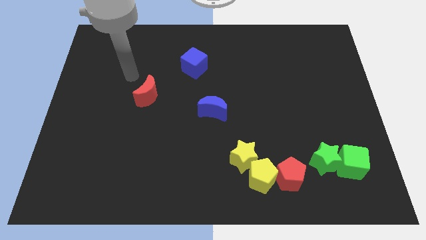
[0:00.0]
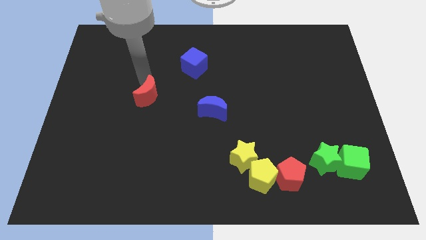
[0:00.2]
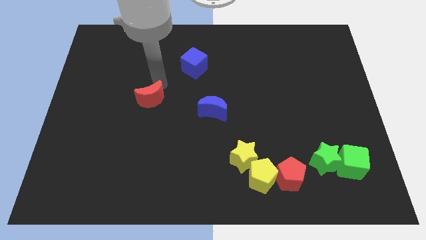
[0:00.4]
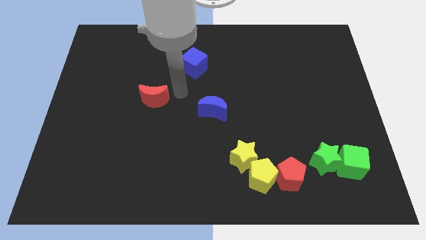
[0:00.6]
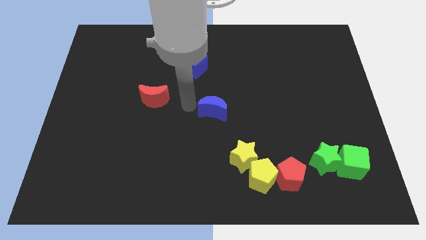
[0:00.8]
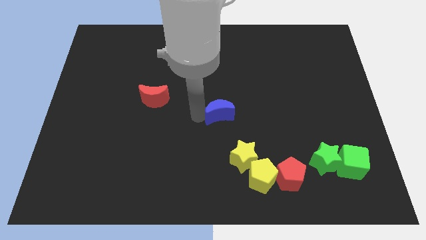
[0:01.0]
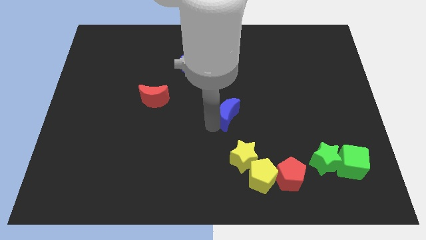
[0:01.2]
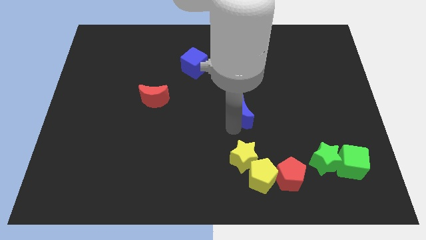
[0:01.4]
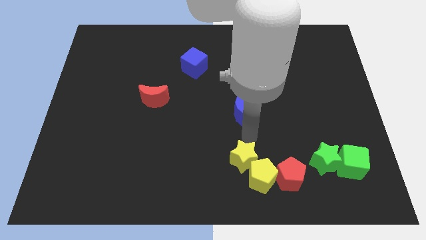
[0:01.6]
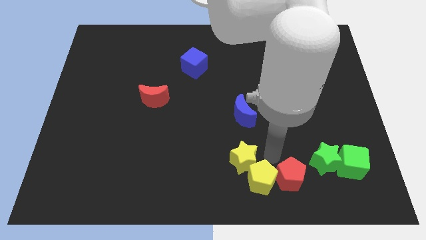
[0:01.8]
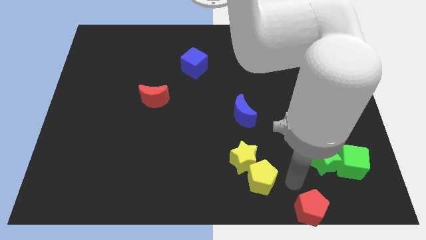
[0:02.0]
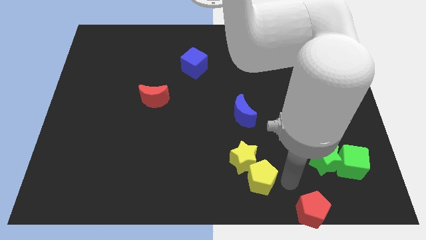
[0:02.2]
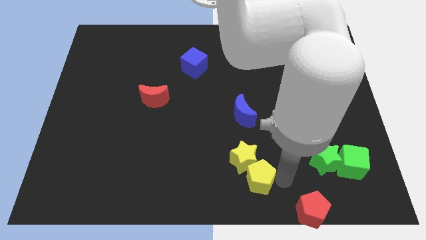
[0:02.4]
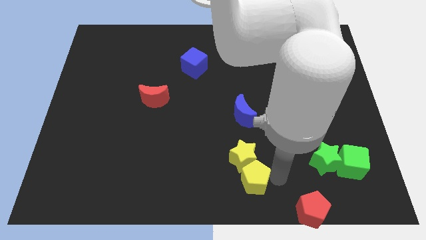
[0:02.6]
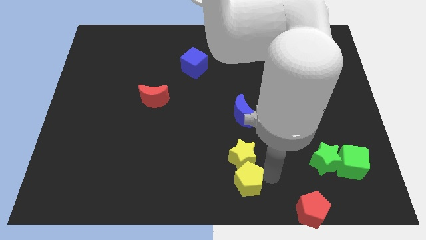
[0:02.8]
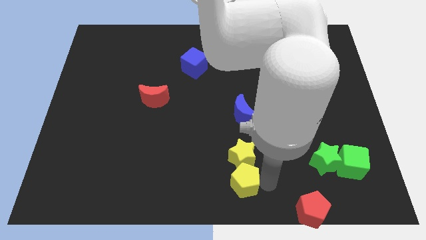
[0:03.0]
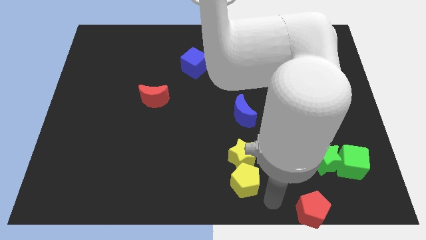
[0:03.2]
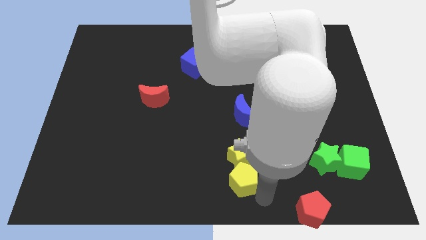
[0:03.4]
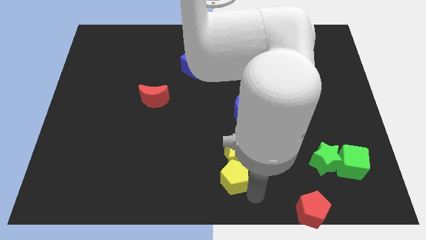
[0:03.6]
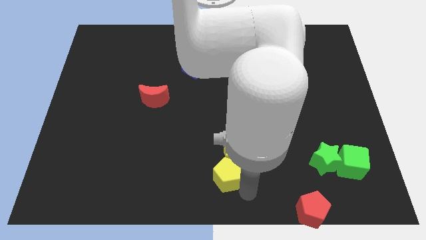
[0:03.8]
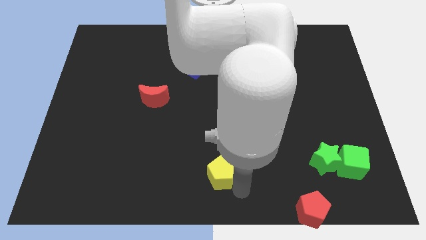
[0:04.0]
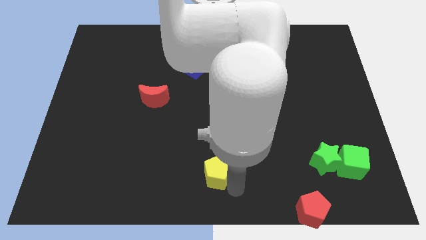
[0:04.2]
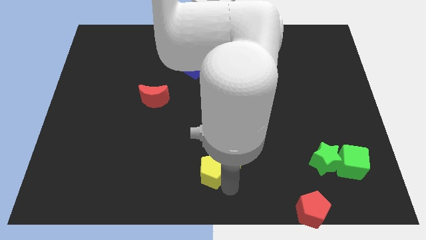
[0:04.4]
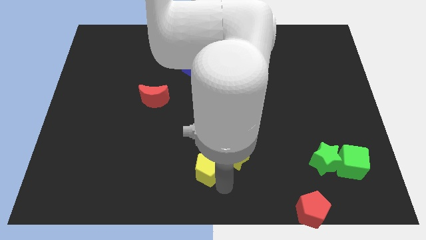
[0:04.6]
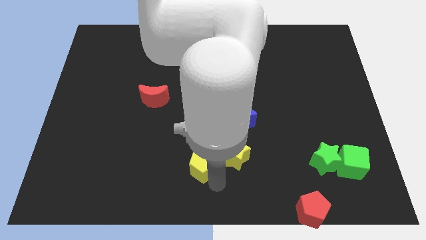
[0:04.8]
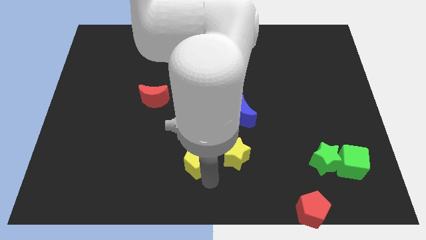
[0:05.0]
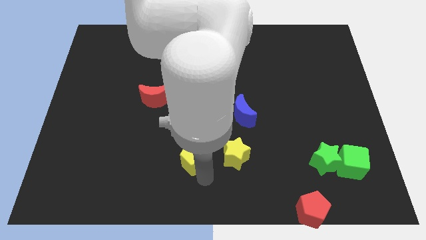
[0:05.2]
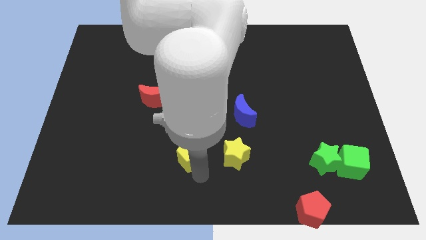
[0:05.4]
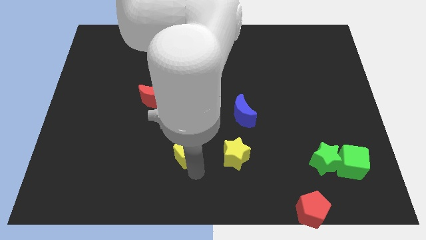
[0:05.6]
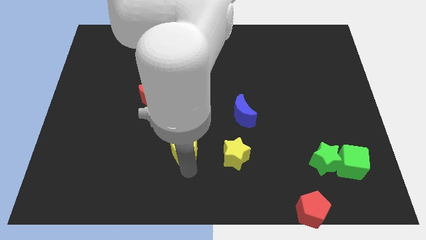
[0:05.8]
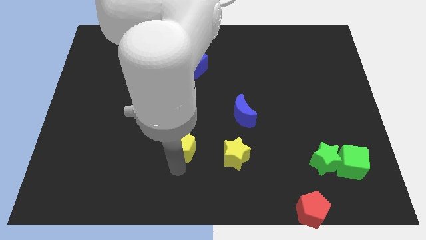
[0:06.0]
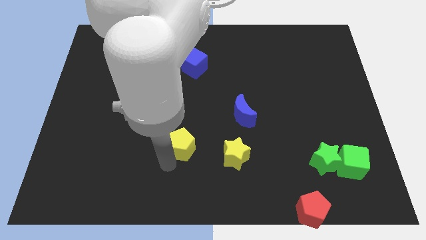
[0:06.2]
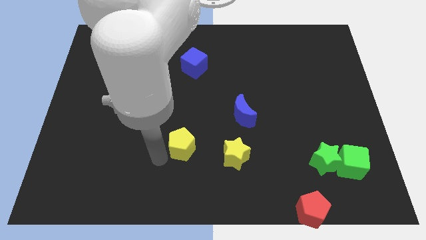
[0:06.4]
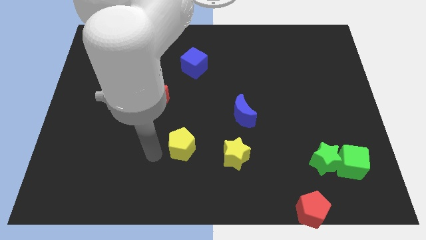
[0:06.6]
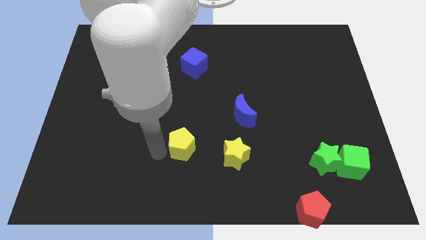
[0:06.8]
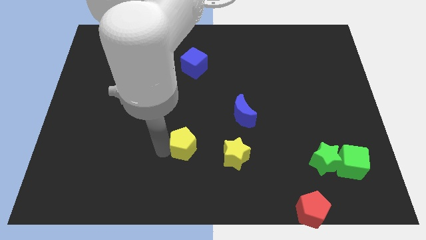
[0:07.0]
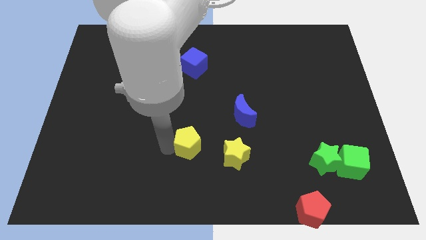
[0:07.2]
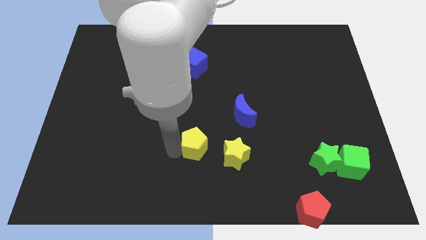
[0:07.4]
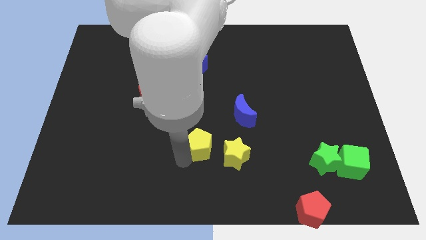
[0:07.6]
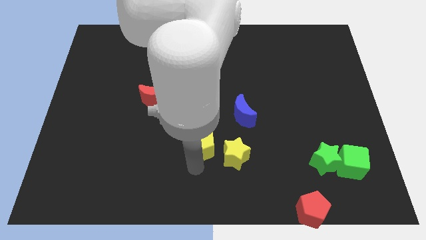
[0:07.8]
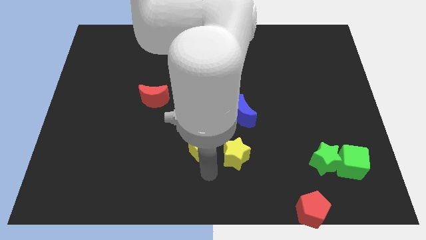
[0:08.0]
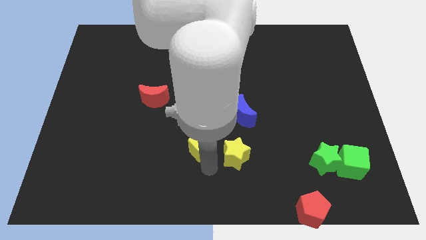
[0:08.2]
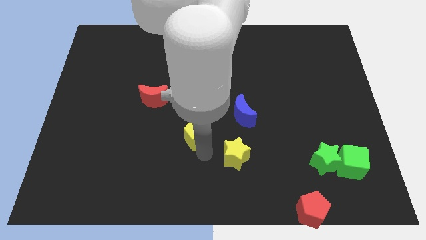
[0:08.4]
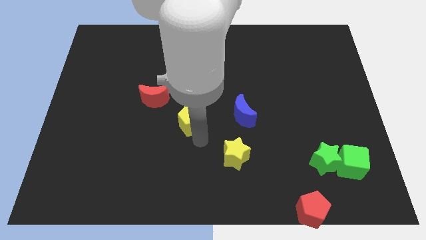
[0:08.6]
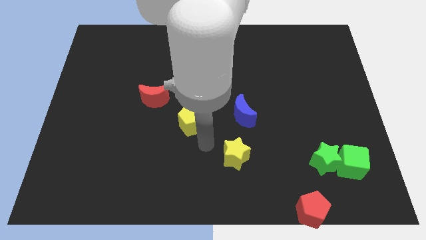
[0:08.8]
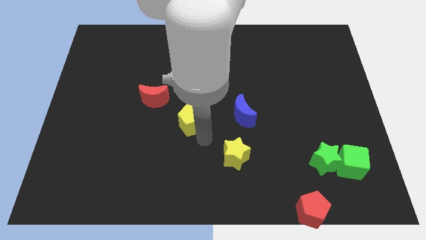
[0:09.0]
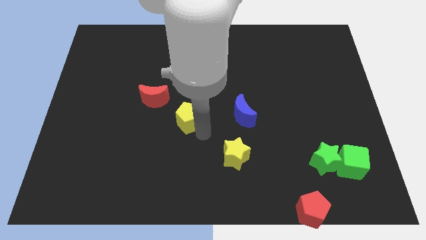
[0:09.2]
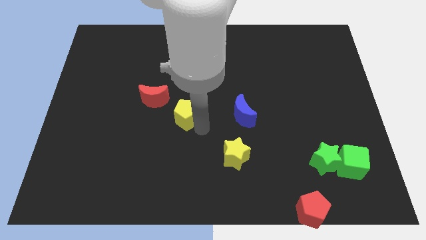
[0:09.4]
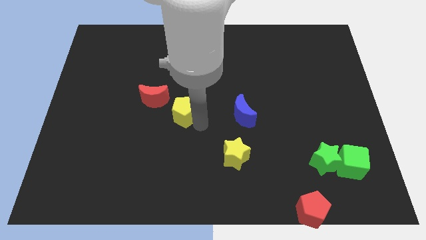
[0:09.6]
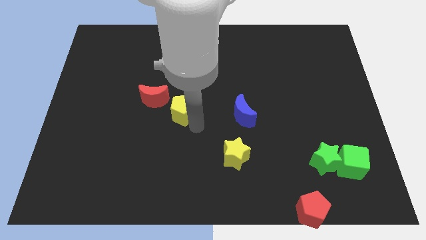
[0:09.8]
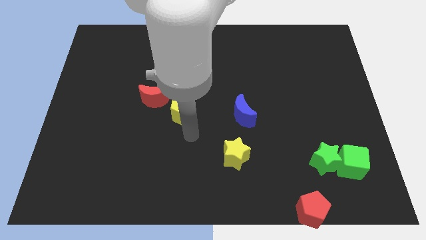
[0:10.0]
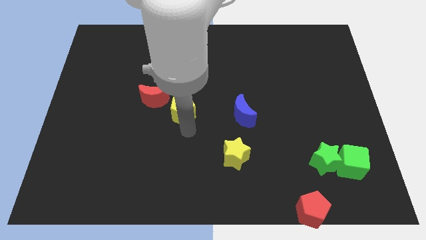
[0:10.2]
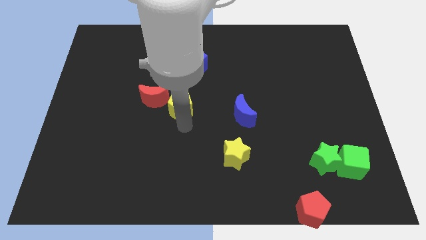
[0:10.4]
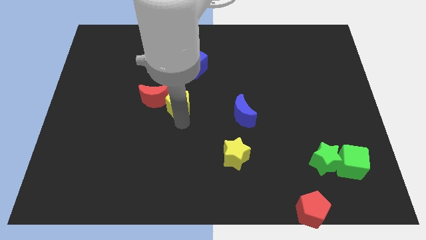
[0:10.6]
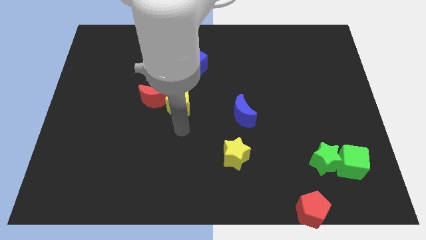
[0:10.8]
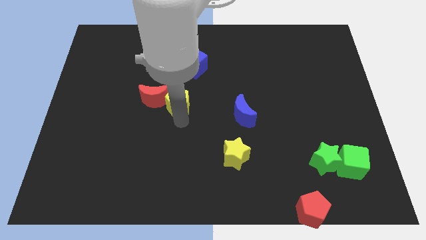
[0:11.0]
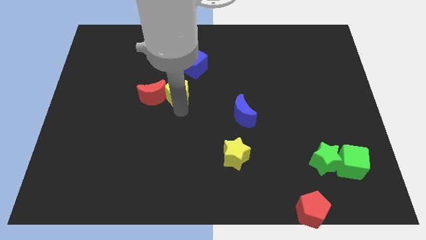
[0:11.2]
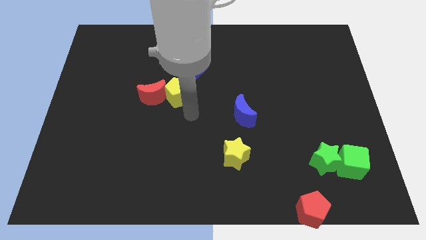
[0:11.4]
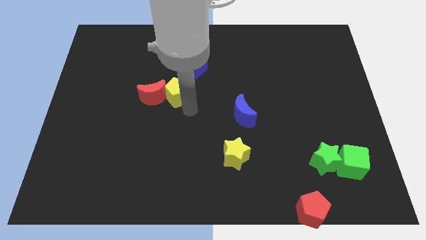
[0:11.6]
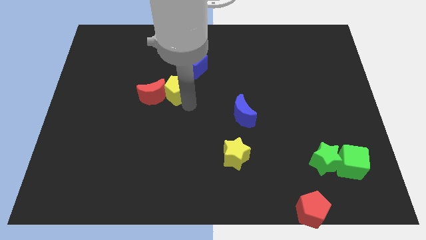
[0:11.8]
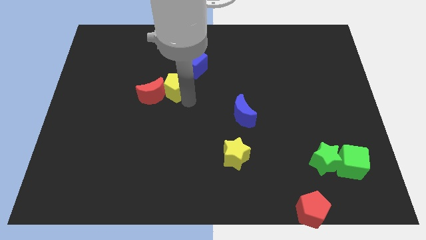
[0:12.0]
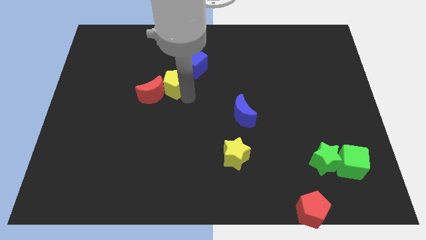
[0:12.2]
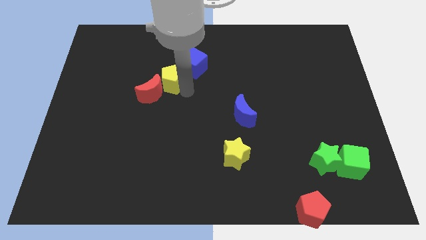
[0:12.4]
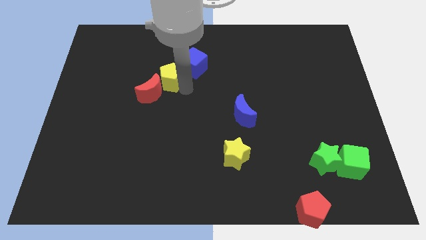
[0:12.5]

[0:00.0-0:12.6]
put the yellow pentagon to the left side of the blue cube

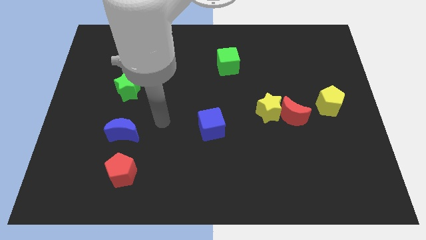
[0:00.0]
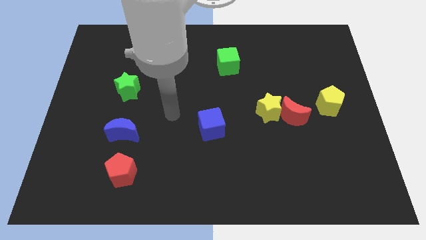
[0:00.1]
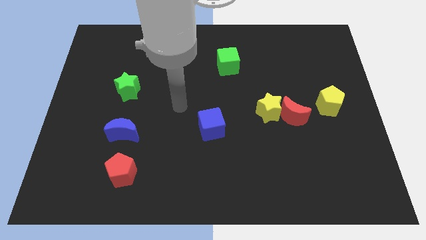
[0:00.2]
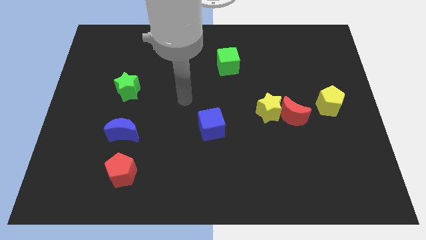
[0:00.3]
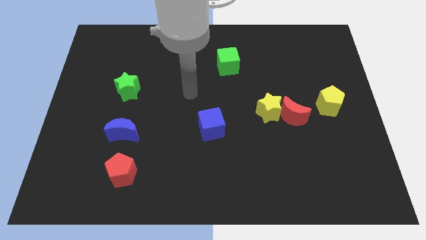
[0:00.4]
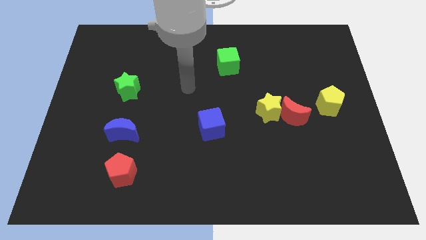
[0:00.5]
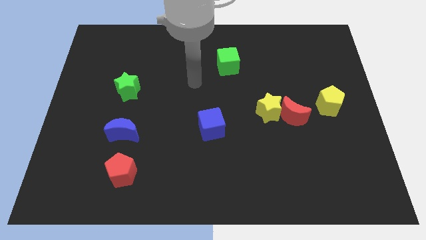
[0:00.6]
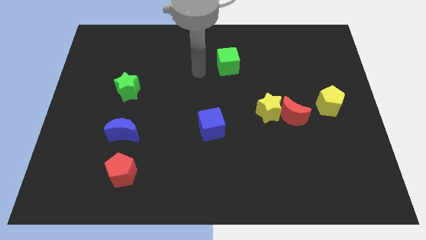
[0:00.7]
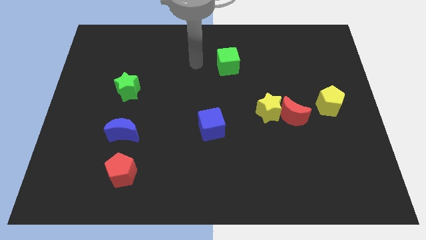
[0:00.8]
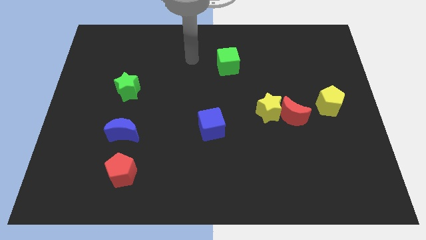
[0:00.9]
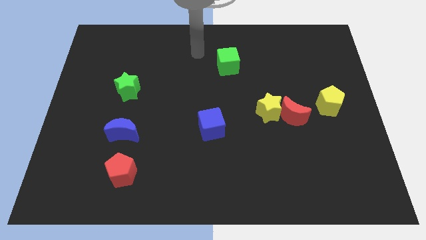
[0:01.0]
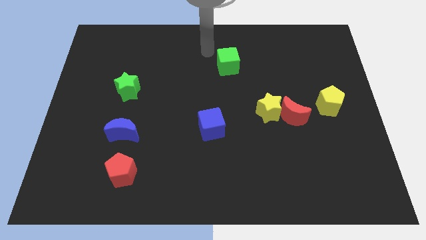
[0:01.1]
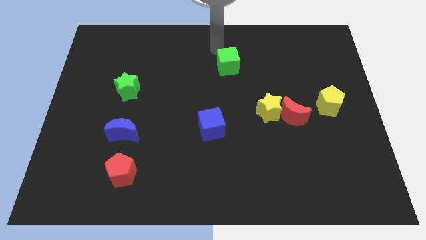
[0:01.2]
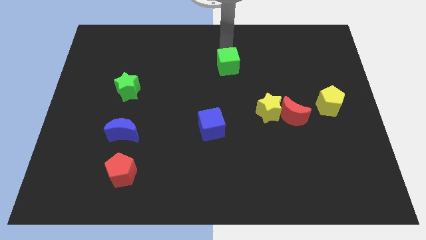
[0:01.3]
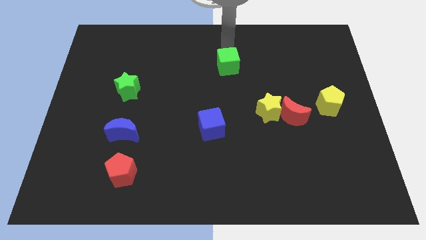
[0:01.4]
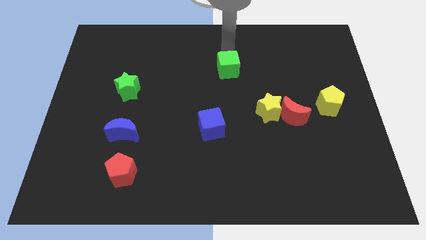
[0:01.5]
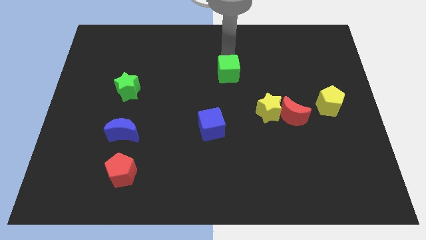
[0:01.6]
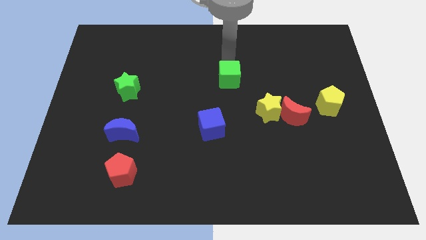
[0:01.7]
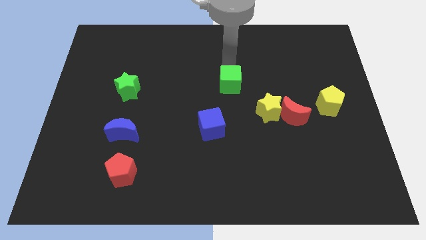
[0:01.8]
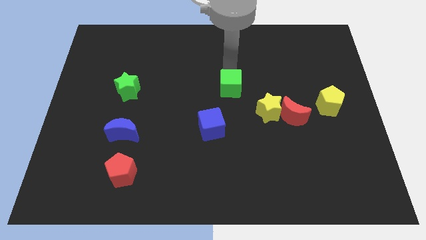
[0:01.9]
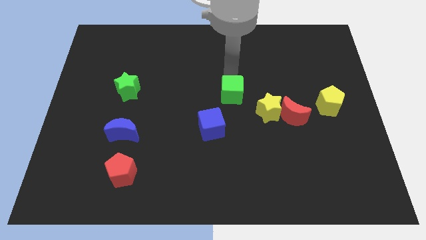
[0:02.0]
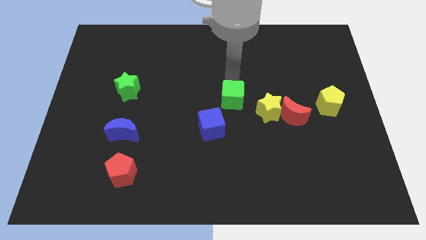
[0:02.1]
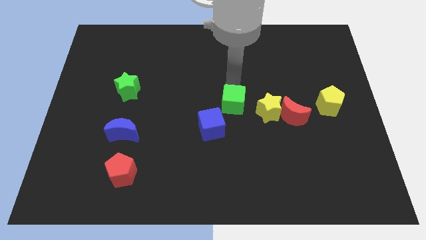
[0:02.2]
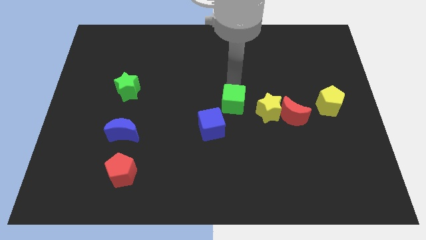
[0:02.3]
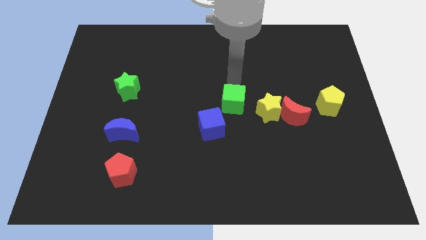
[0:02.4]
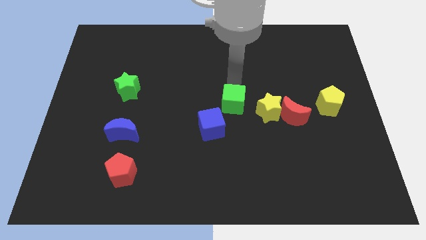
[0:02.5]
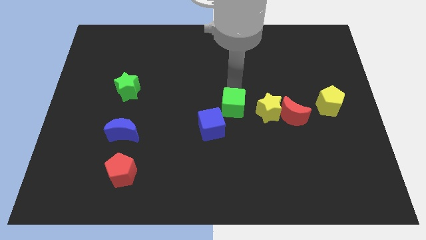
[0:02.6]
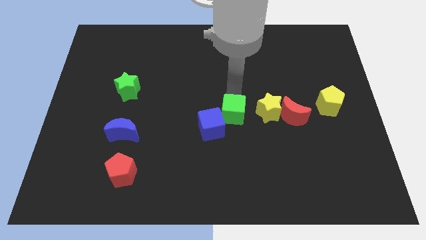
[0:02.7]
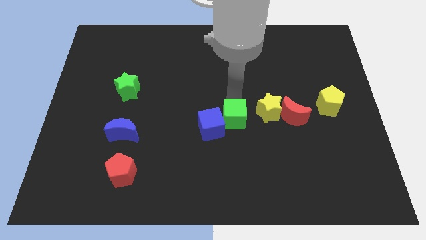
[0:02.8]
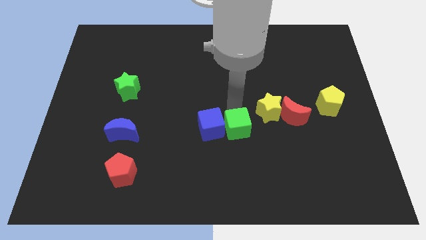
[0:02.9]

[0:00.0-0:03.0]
move the green cube to the bottom right of the blue cube
